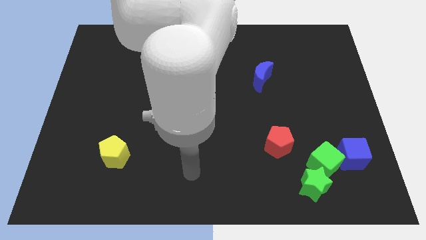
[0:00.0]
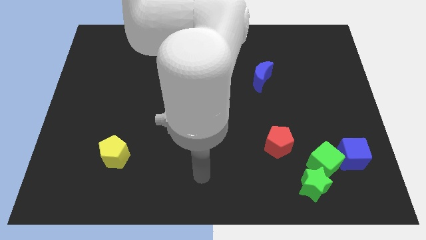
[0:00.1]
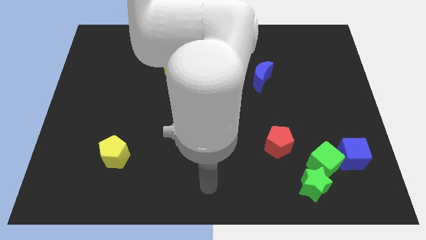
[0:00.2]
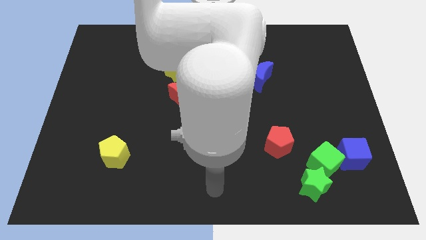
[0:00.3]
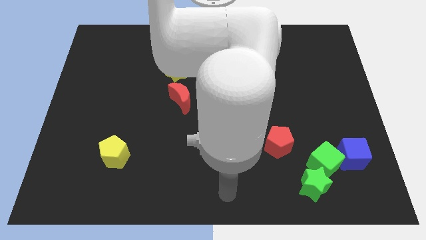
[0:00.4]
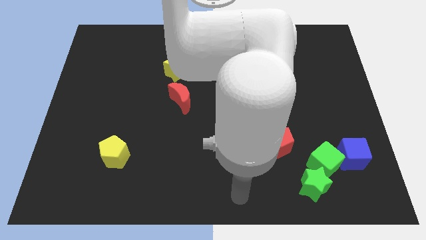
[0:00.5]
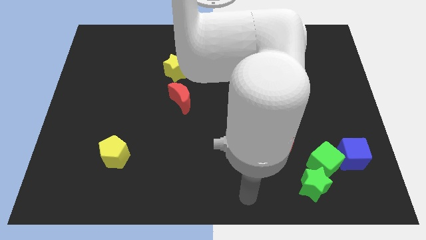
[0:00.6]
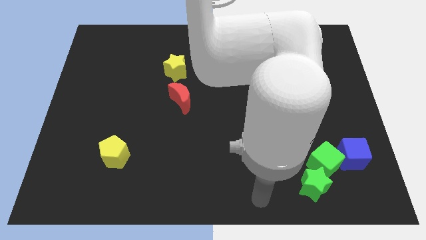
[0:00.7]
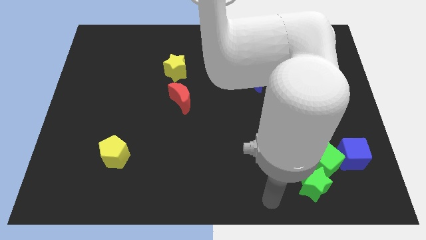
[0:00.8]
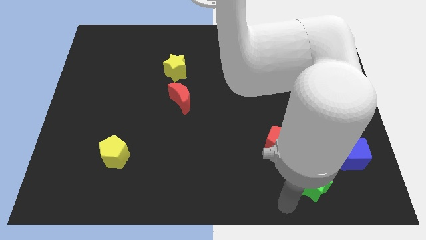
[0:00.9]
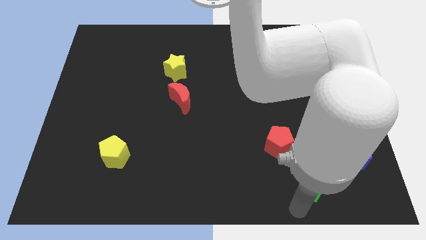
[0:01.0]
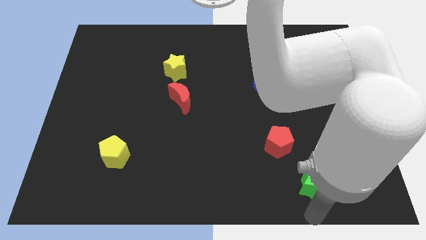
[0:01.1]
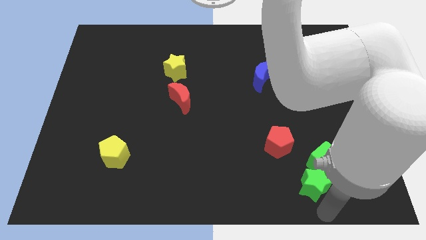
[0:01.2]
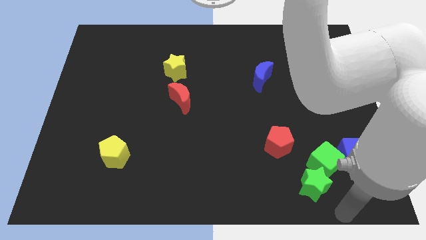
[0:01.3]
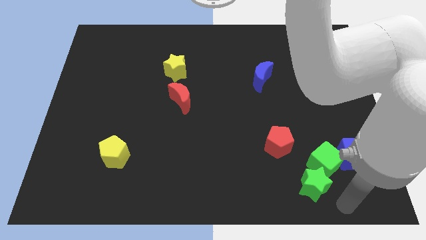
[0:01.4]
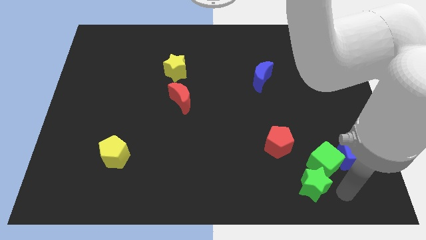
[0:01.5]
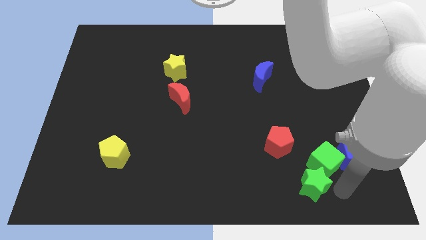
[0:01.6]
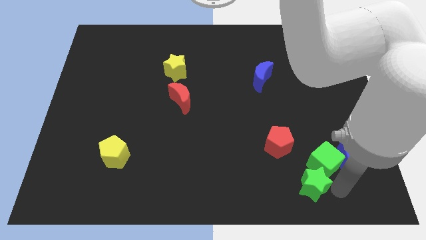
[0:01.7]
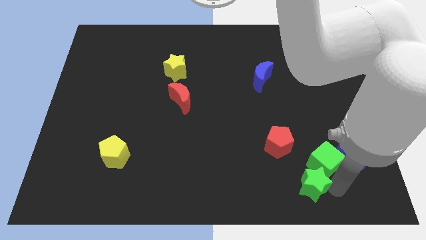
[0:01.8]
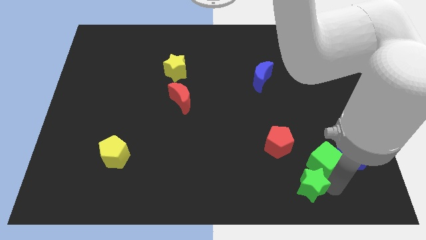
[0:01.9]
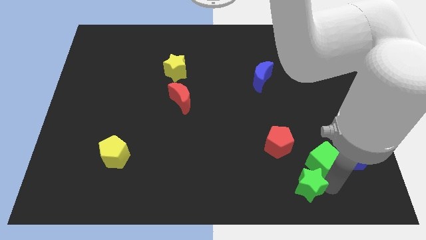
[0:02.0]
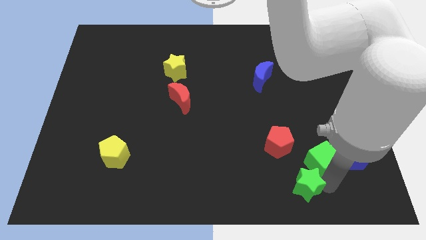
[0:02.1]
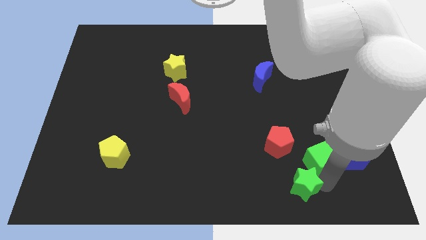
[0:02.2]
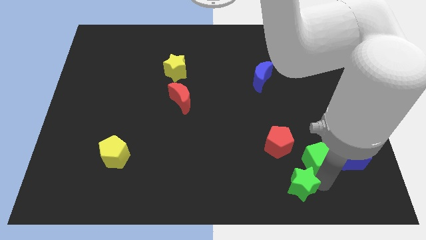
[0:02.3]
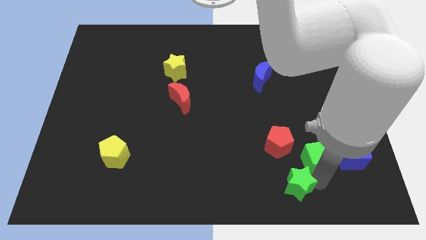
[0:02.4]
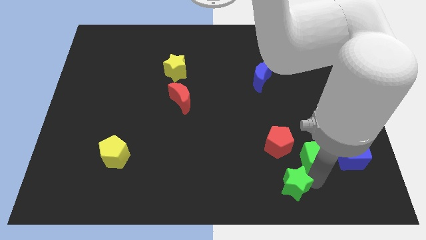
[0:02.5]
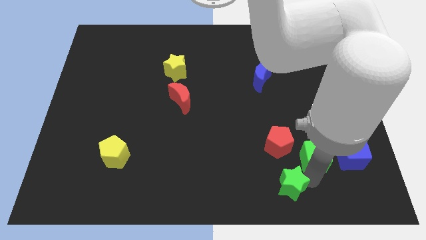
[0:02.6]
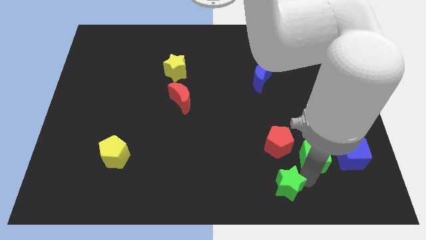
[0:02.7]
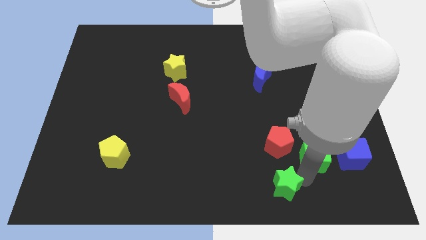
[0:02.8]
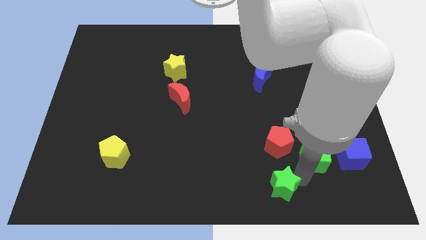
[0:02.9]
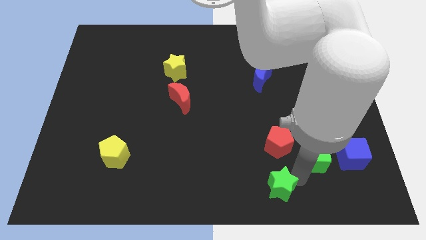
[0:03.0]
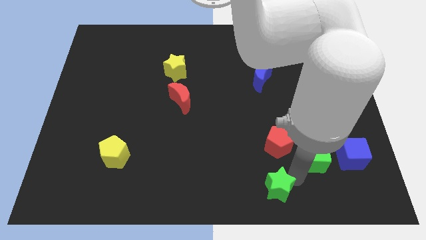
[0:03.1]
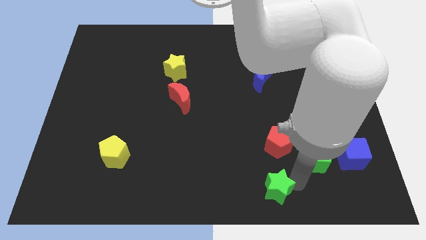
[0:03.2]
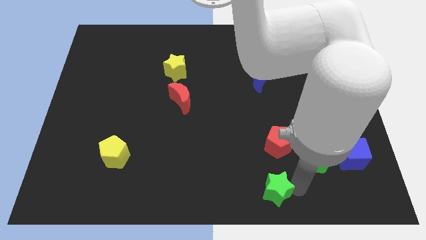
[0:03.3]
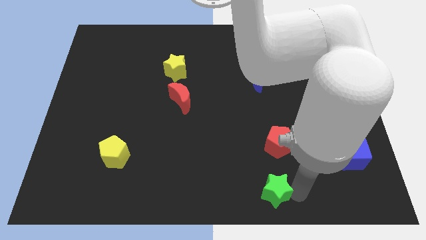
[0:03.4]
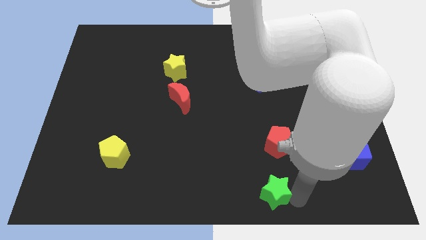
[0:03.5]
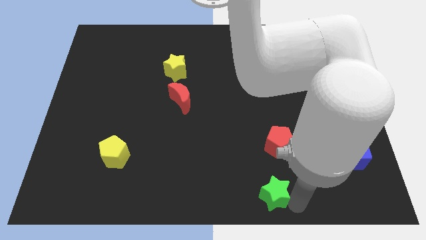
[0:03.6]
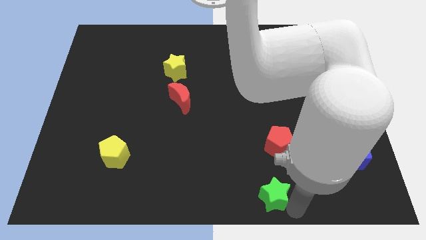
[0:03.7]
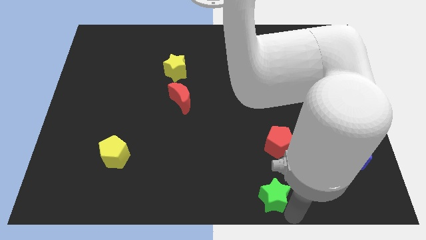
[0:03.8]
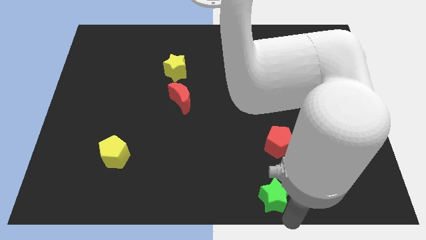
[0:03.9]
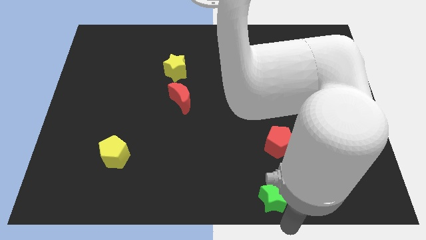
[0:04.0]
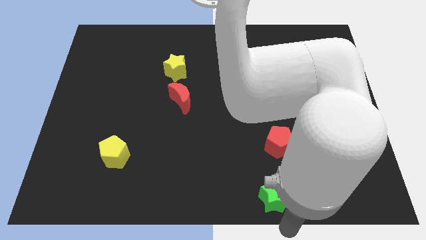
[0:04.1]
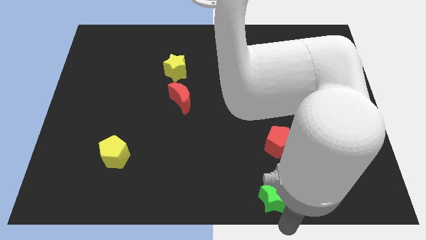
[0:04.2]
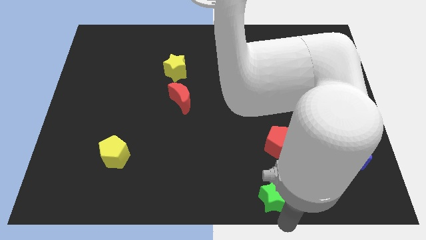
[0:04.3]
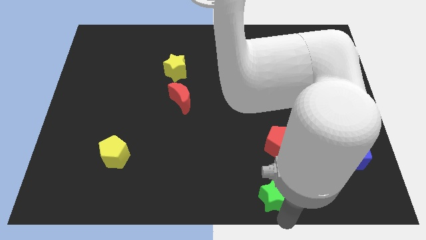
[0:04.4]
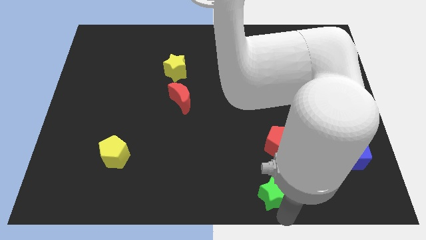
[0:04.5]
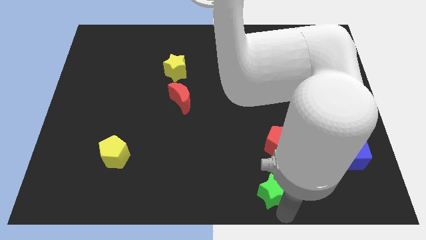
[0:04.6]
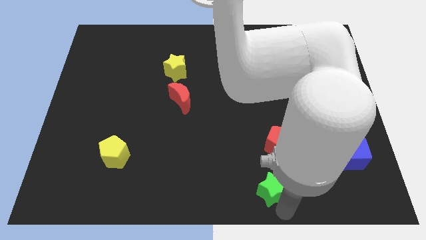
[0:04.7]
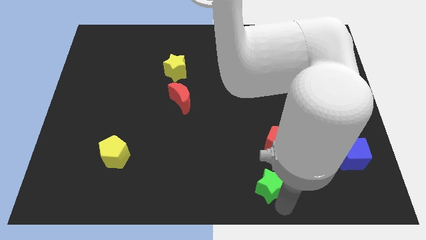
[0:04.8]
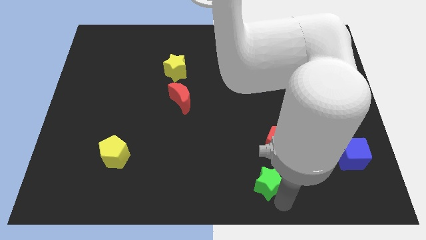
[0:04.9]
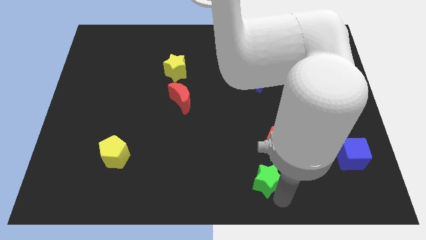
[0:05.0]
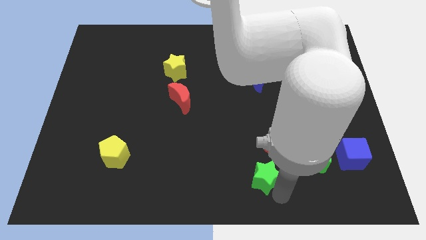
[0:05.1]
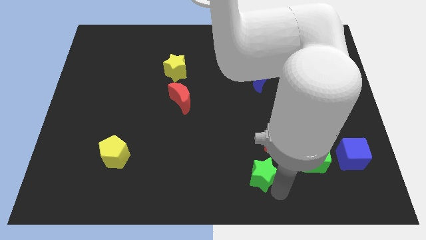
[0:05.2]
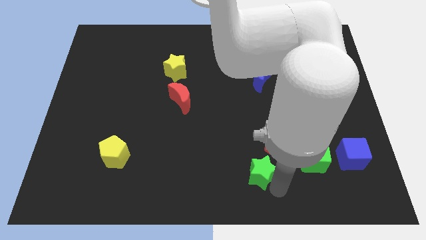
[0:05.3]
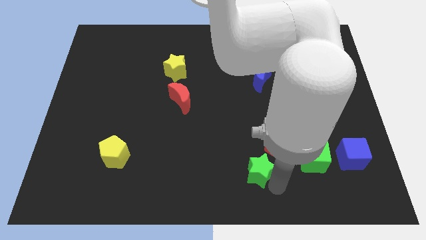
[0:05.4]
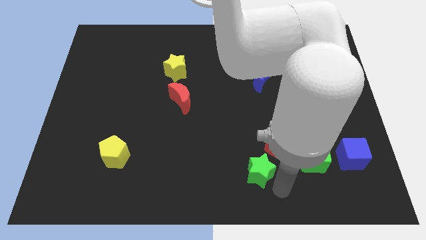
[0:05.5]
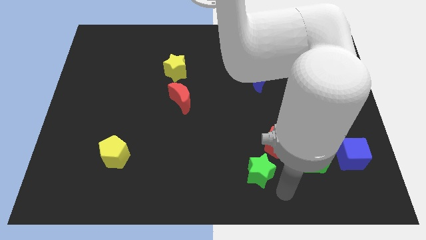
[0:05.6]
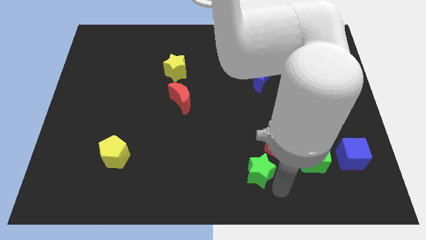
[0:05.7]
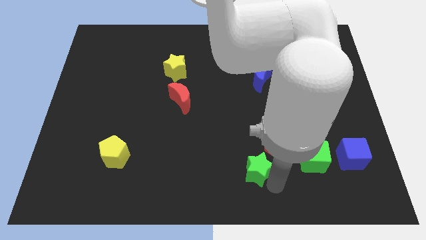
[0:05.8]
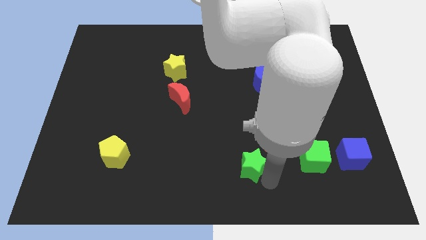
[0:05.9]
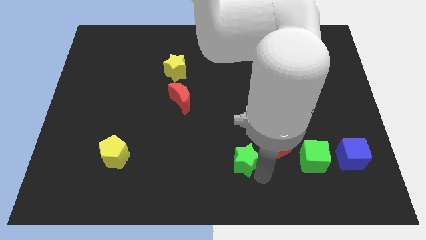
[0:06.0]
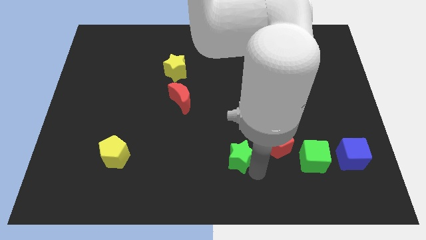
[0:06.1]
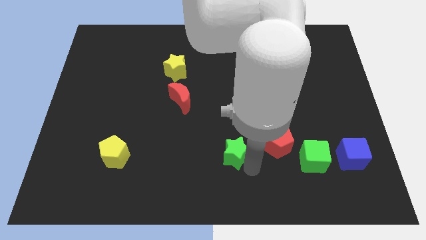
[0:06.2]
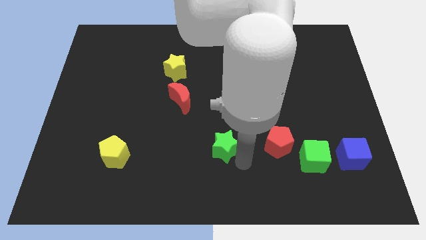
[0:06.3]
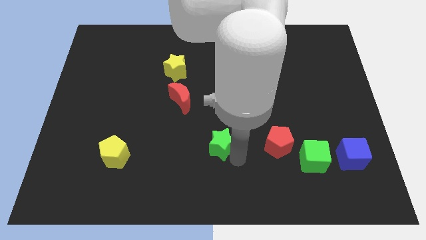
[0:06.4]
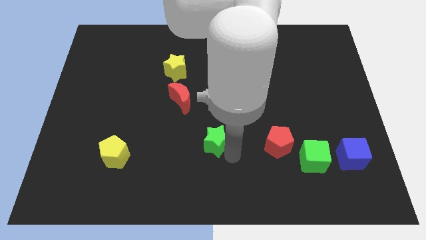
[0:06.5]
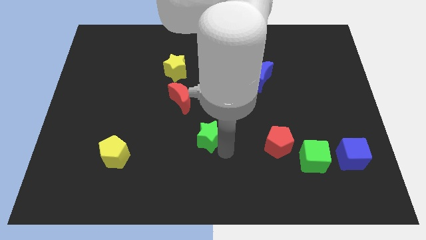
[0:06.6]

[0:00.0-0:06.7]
push the green star up and left

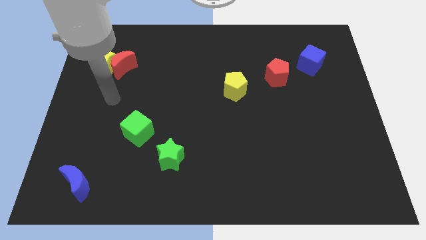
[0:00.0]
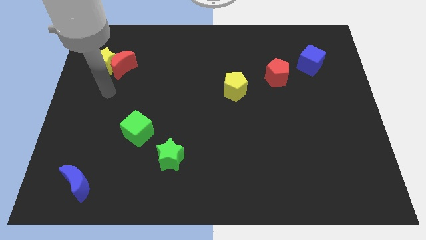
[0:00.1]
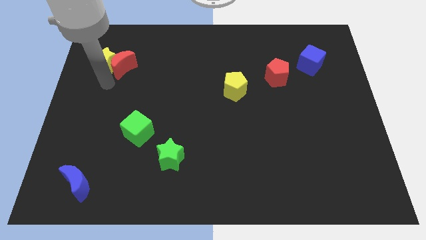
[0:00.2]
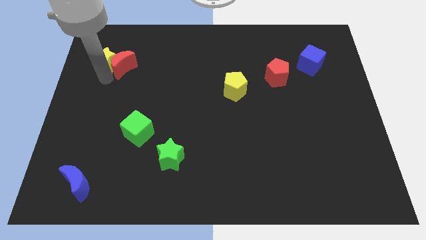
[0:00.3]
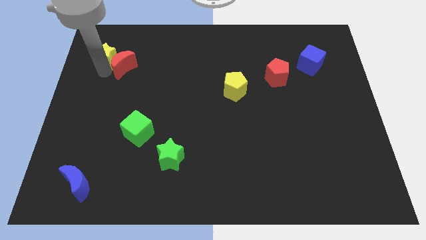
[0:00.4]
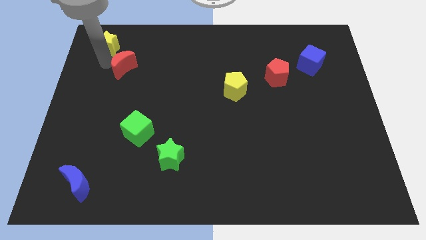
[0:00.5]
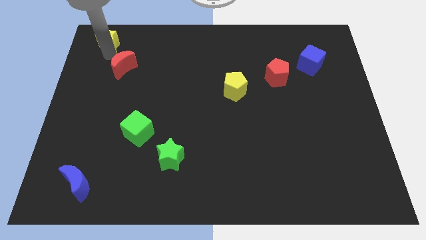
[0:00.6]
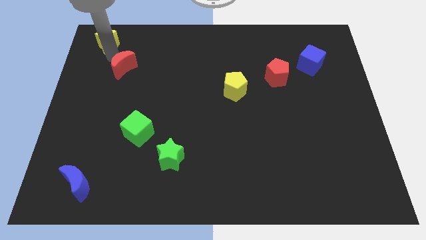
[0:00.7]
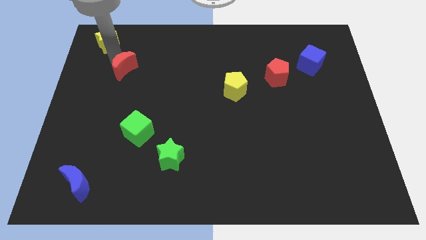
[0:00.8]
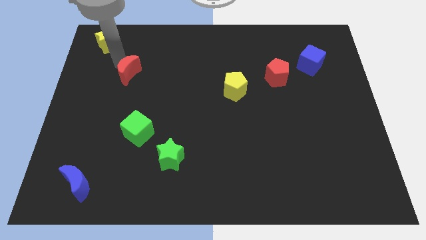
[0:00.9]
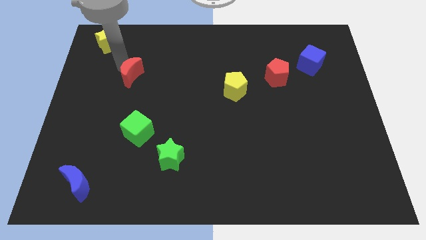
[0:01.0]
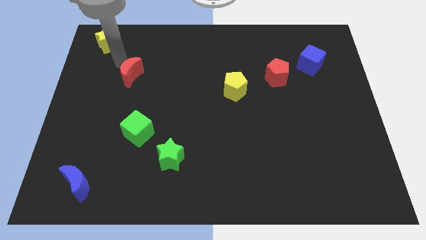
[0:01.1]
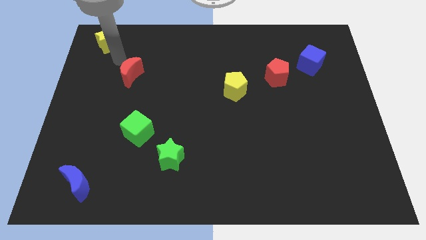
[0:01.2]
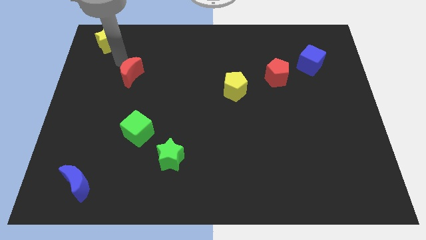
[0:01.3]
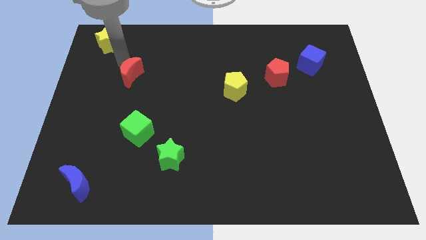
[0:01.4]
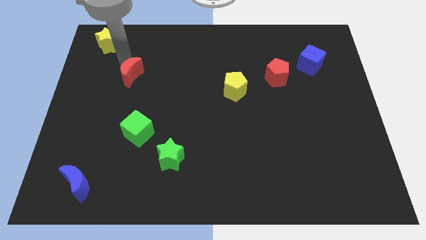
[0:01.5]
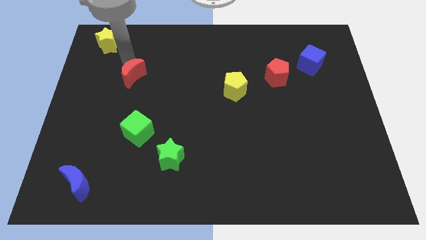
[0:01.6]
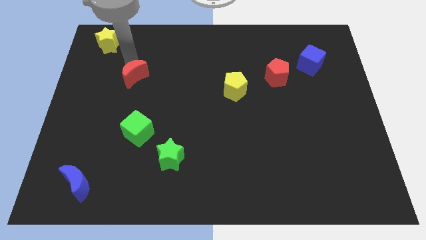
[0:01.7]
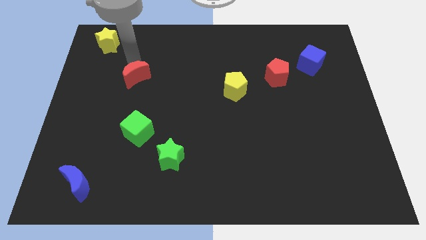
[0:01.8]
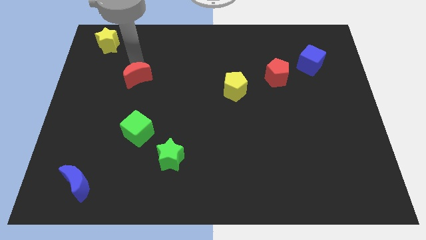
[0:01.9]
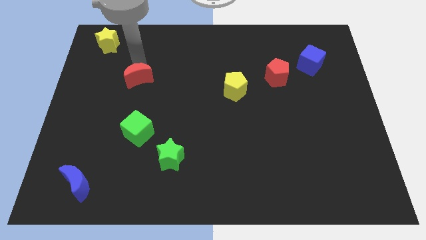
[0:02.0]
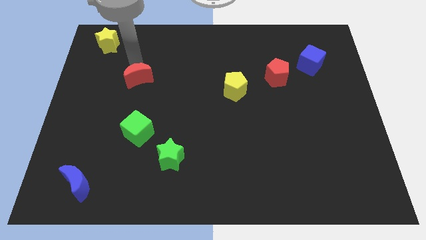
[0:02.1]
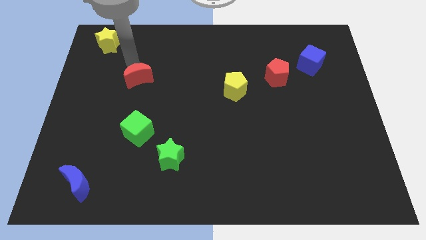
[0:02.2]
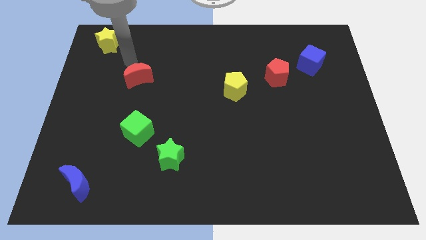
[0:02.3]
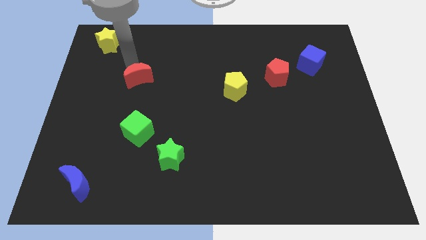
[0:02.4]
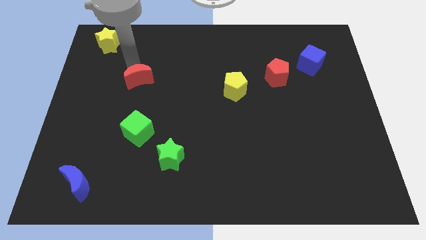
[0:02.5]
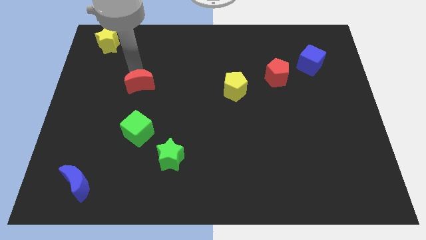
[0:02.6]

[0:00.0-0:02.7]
move the red moon a little bit down and then to the right
